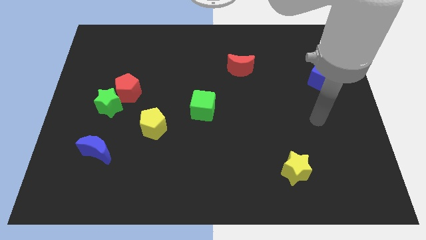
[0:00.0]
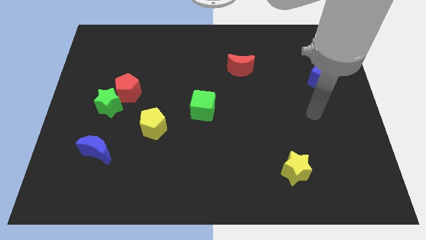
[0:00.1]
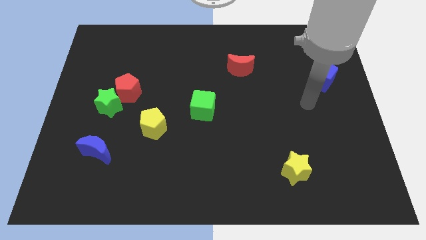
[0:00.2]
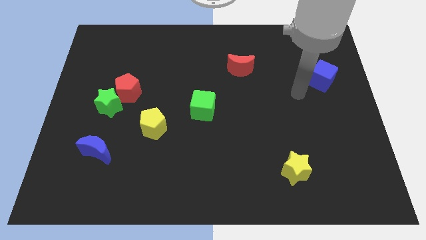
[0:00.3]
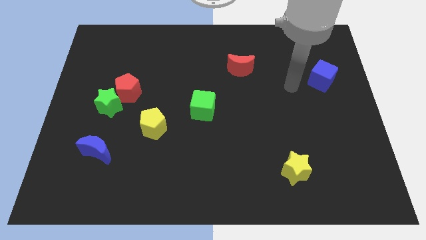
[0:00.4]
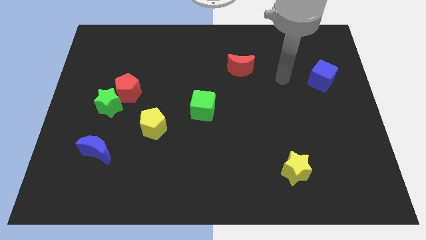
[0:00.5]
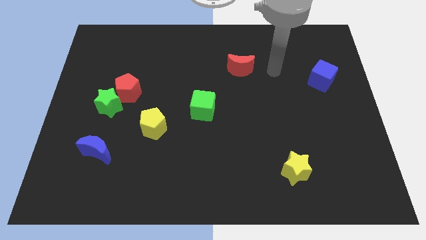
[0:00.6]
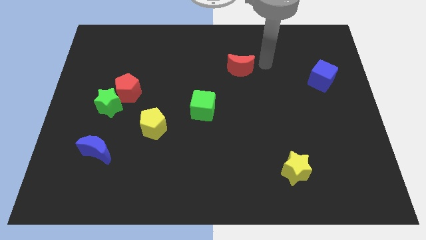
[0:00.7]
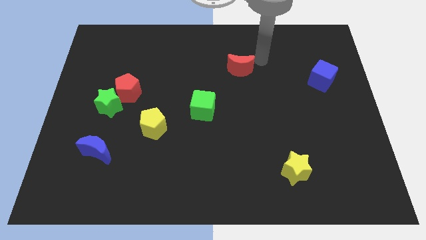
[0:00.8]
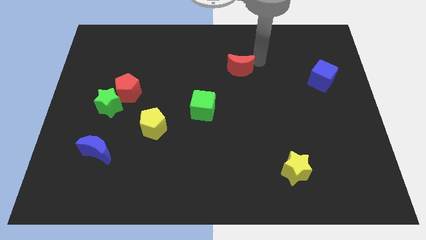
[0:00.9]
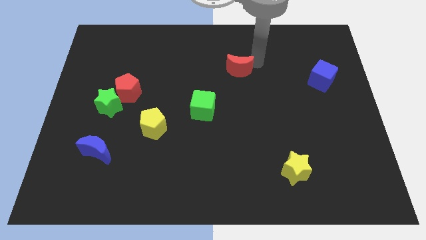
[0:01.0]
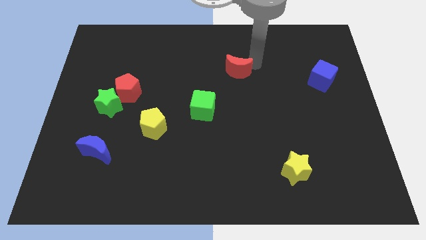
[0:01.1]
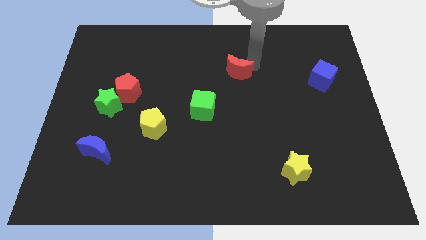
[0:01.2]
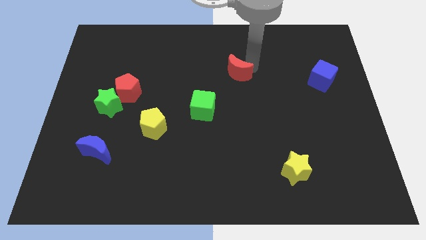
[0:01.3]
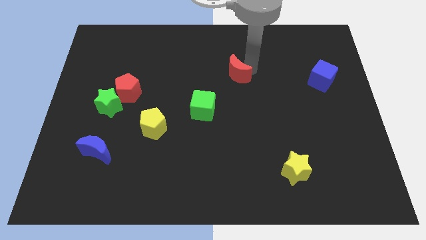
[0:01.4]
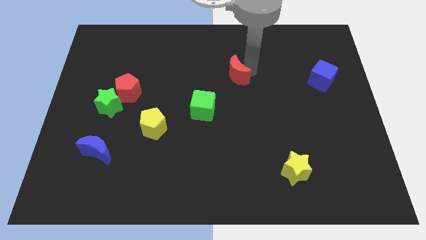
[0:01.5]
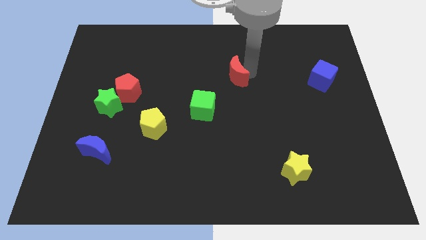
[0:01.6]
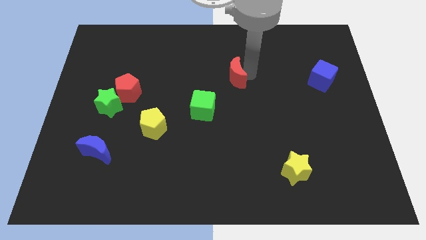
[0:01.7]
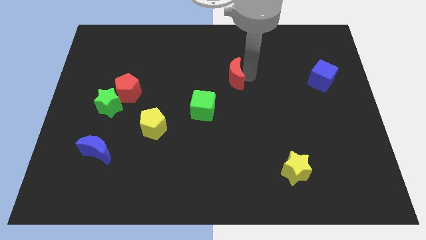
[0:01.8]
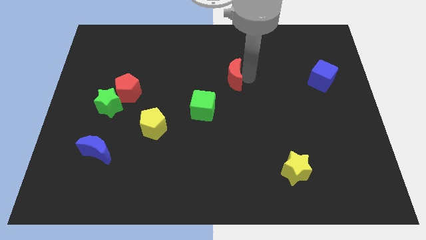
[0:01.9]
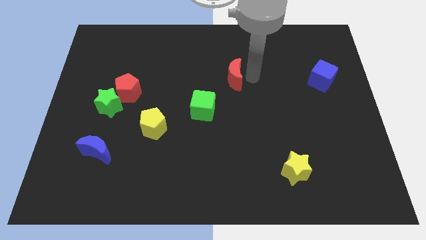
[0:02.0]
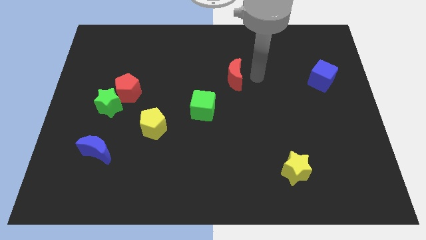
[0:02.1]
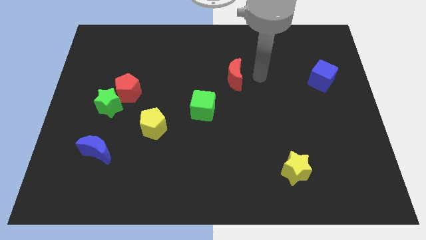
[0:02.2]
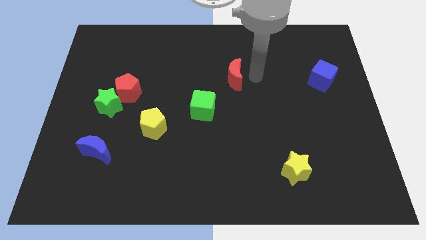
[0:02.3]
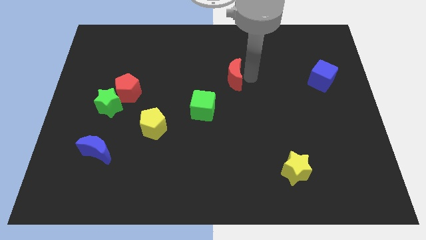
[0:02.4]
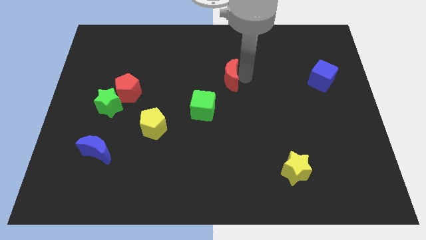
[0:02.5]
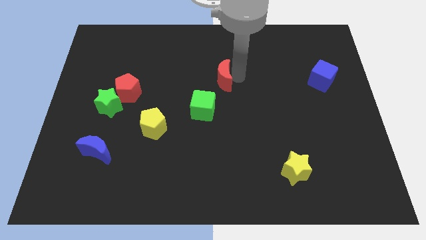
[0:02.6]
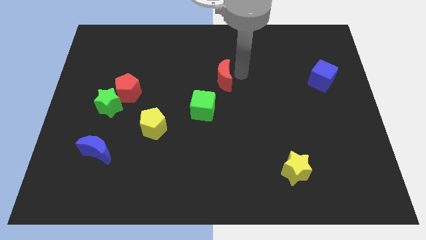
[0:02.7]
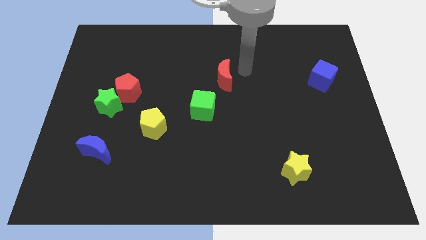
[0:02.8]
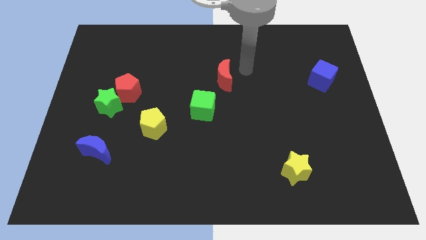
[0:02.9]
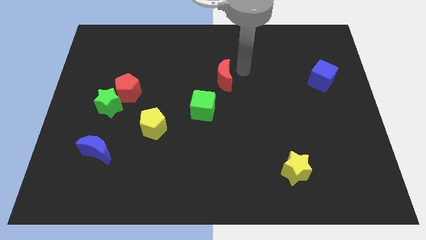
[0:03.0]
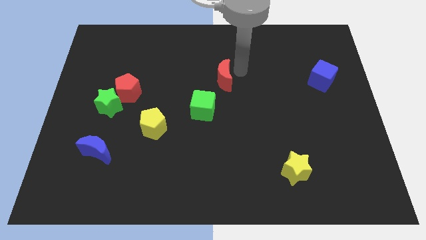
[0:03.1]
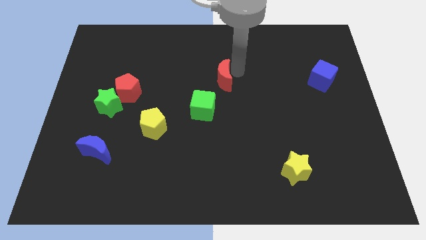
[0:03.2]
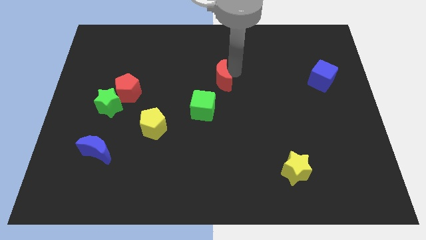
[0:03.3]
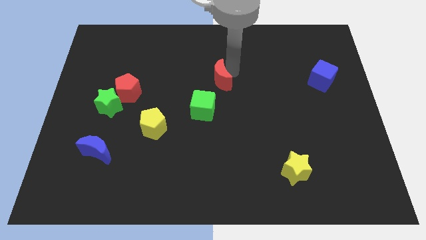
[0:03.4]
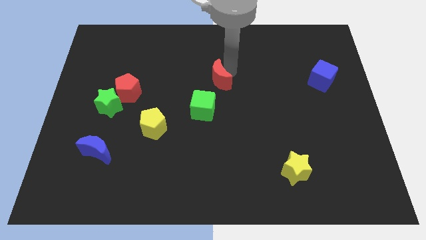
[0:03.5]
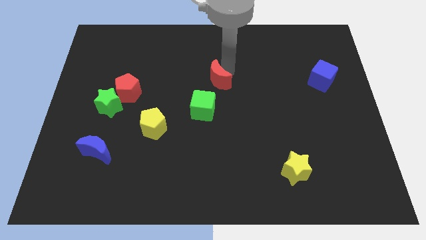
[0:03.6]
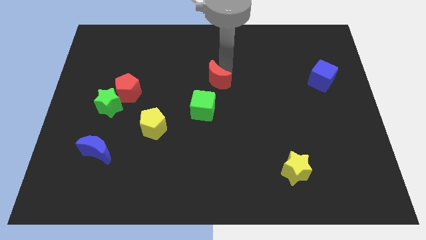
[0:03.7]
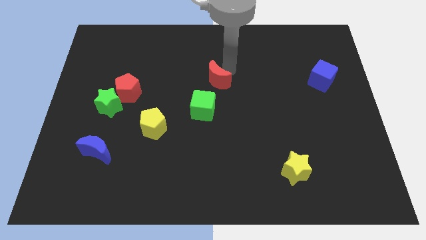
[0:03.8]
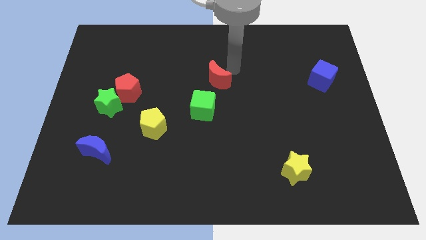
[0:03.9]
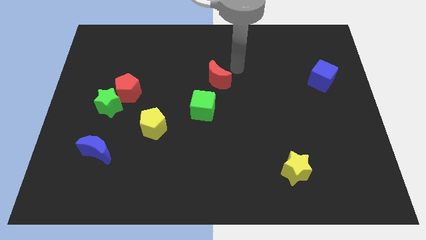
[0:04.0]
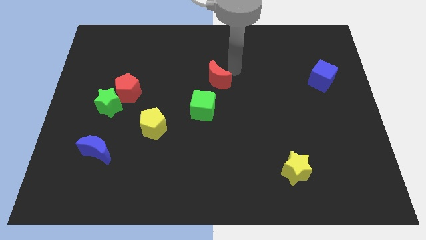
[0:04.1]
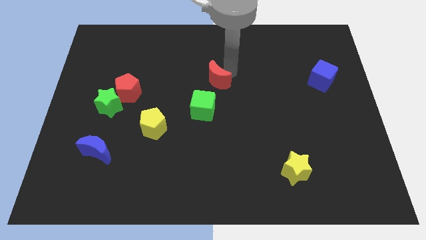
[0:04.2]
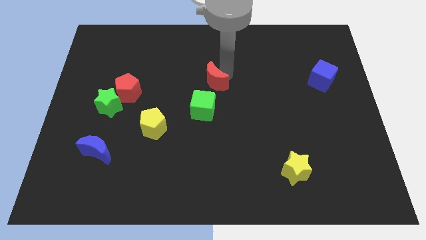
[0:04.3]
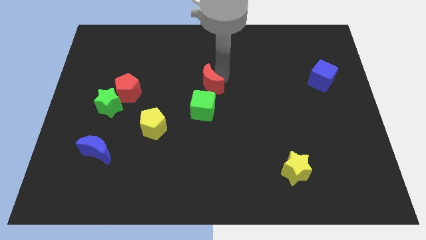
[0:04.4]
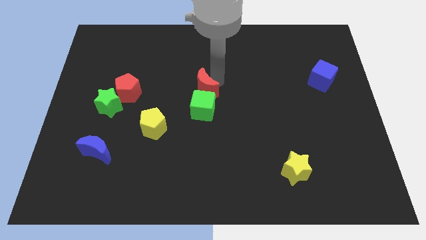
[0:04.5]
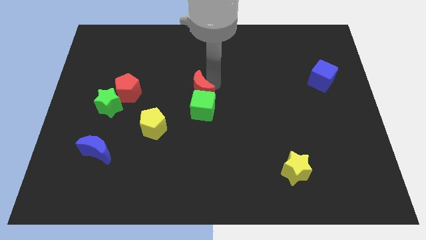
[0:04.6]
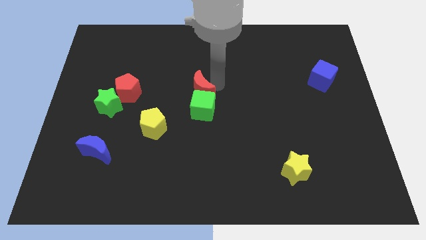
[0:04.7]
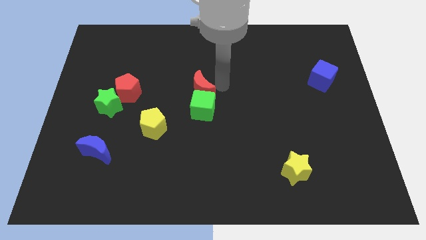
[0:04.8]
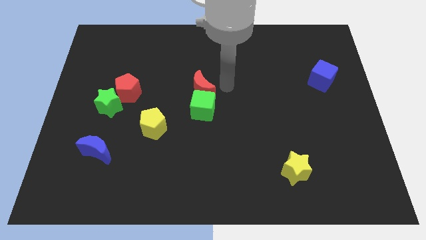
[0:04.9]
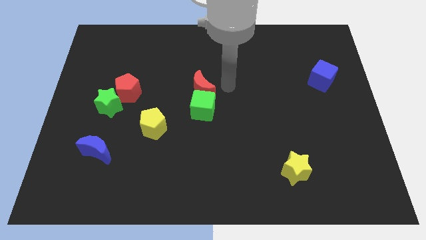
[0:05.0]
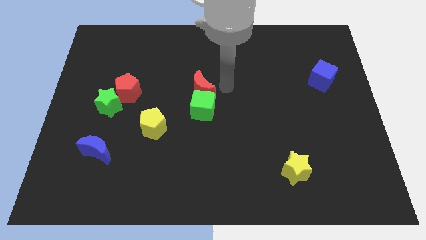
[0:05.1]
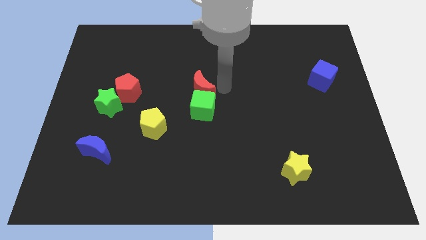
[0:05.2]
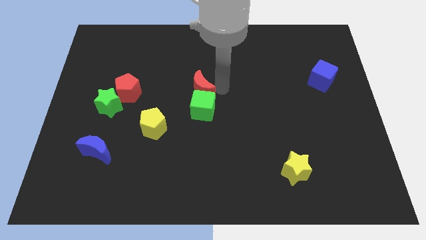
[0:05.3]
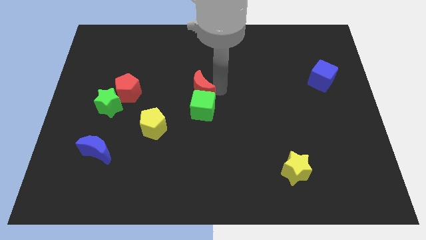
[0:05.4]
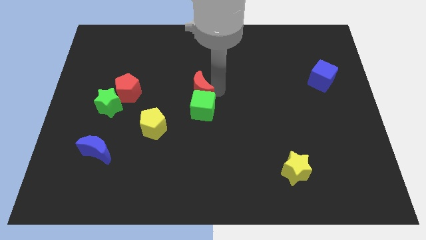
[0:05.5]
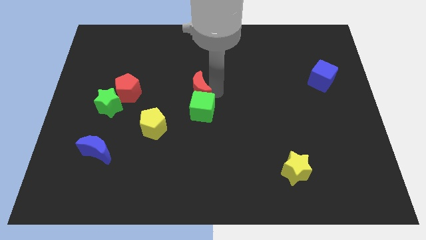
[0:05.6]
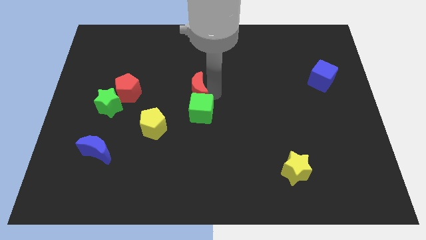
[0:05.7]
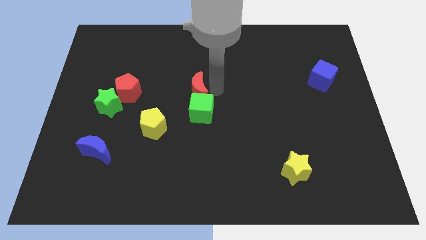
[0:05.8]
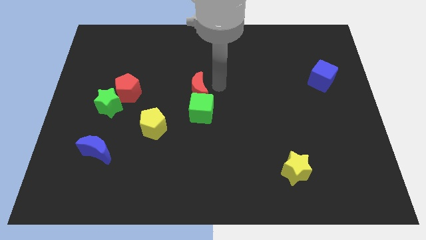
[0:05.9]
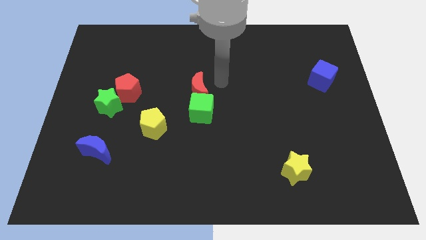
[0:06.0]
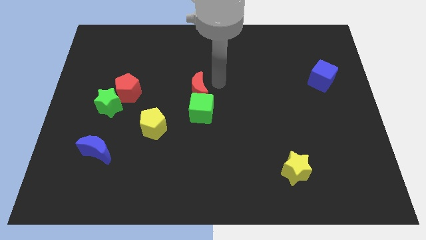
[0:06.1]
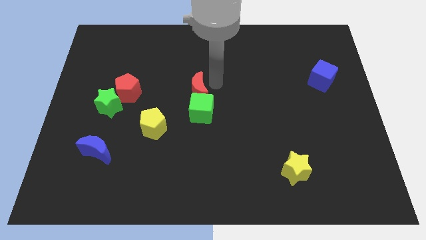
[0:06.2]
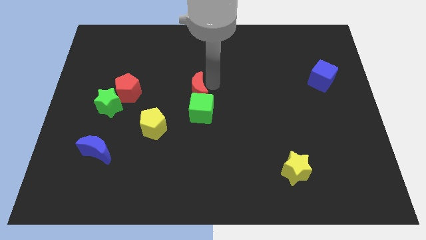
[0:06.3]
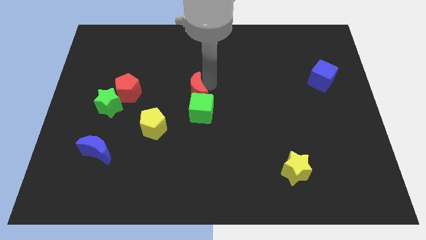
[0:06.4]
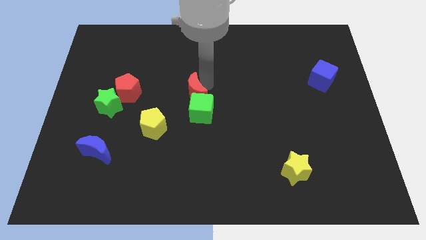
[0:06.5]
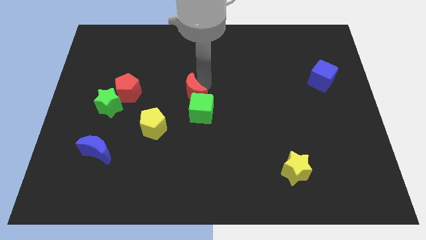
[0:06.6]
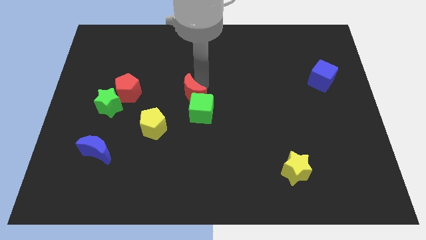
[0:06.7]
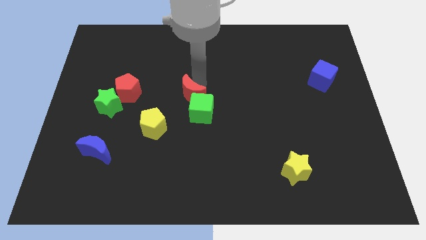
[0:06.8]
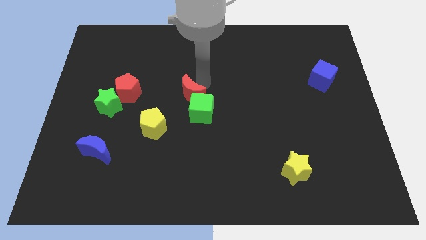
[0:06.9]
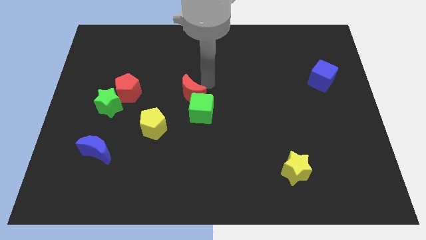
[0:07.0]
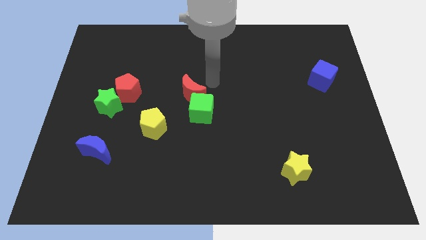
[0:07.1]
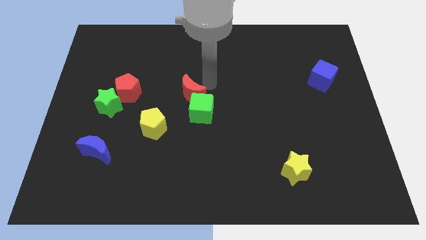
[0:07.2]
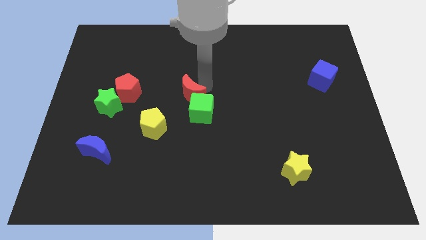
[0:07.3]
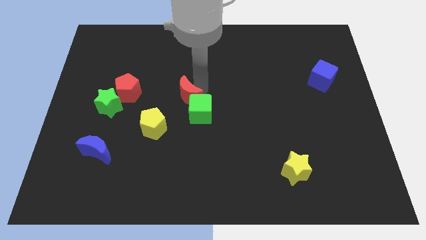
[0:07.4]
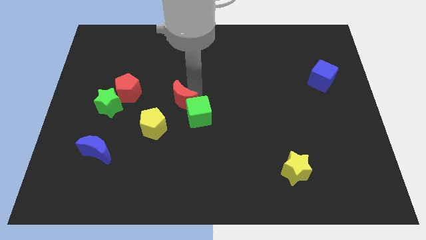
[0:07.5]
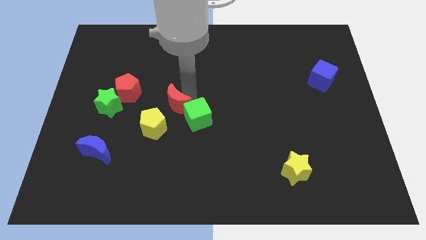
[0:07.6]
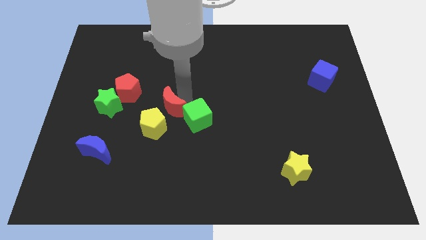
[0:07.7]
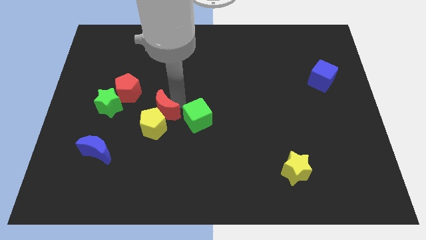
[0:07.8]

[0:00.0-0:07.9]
move the red moon to the yellow pentagon
